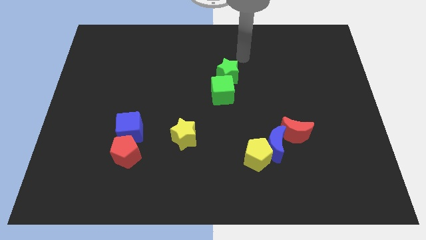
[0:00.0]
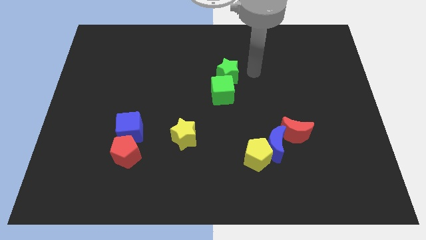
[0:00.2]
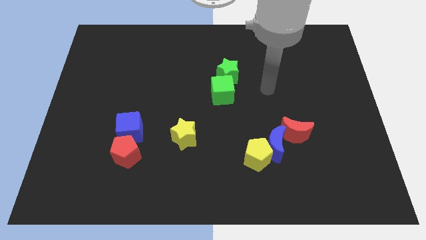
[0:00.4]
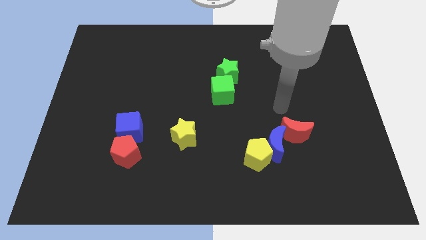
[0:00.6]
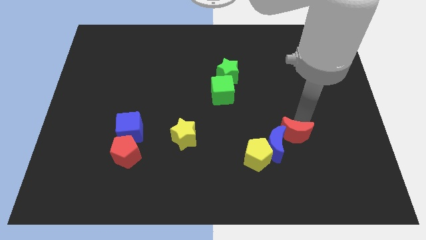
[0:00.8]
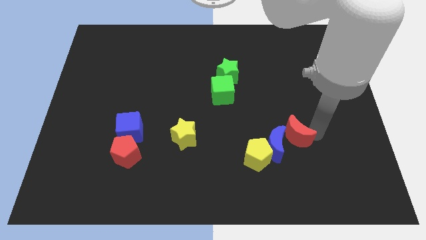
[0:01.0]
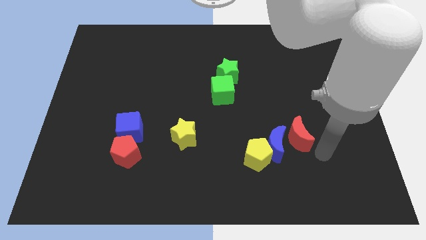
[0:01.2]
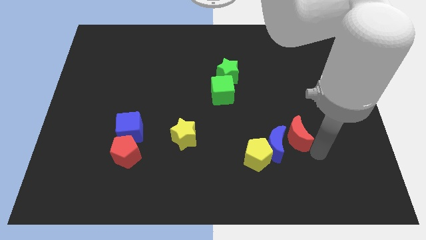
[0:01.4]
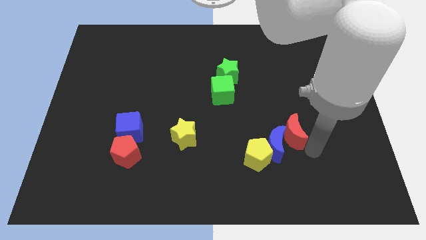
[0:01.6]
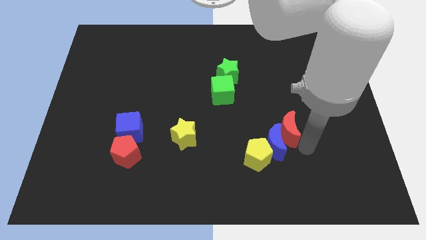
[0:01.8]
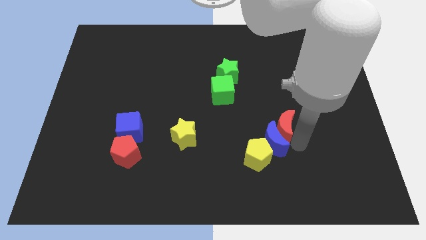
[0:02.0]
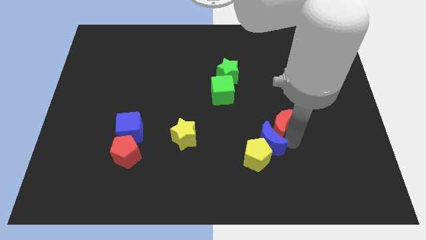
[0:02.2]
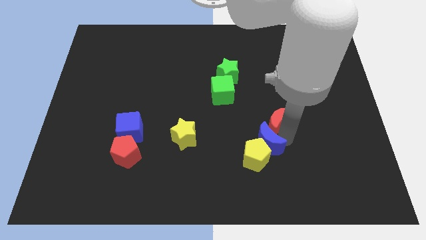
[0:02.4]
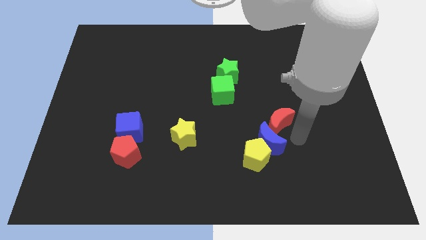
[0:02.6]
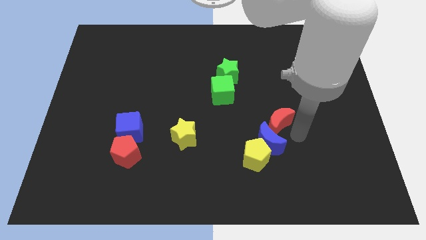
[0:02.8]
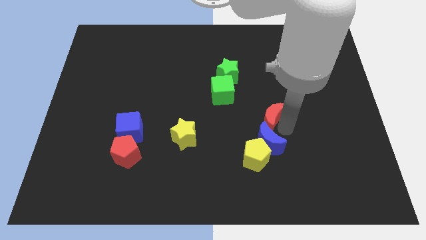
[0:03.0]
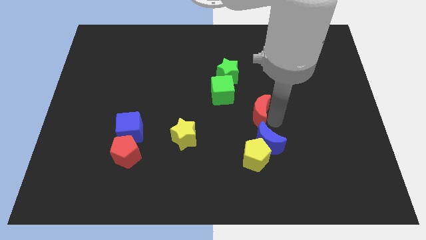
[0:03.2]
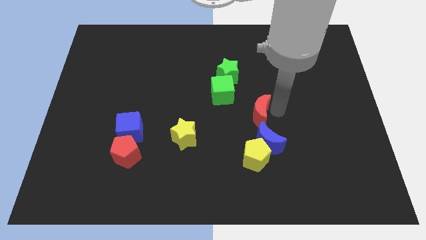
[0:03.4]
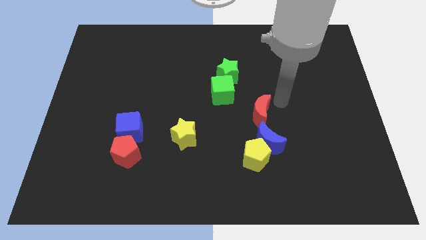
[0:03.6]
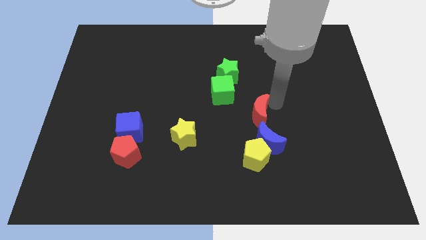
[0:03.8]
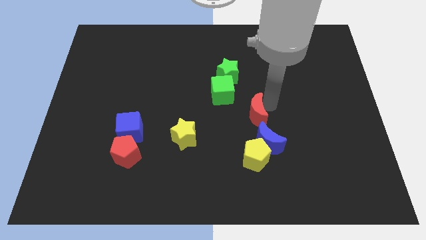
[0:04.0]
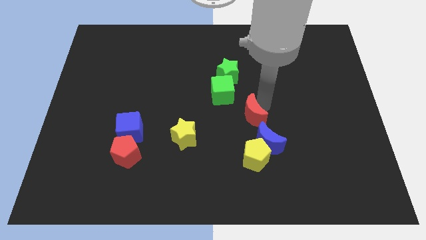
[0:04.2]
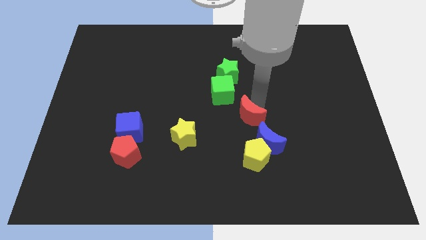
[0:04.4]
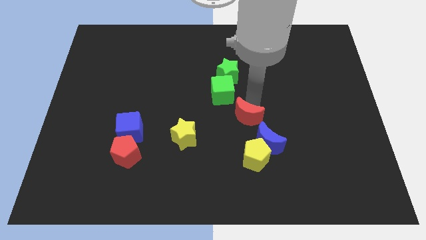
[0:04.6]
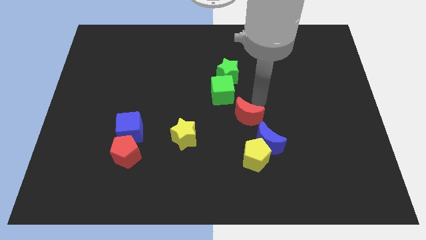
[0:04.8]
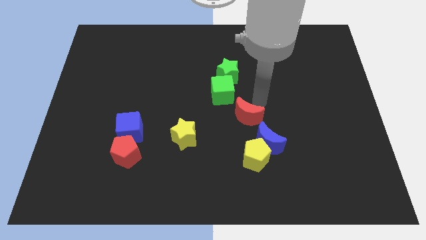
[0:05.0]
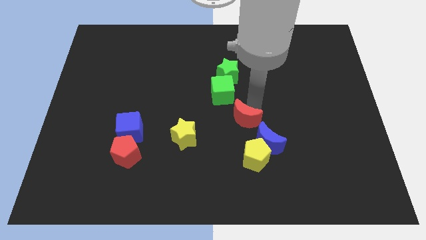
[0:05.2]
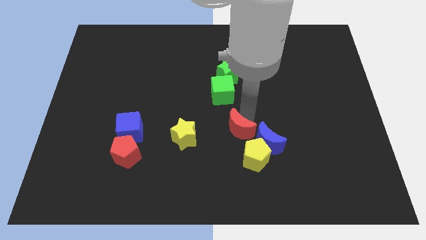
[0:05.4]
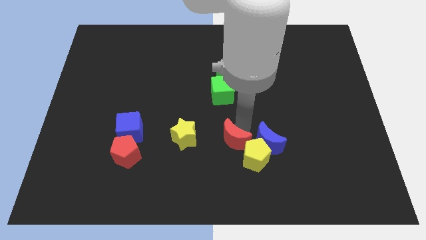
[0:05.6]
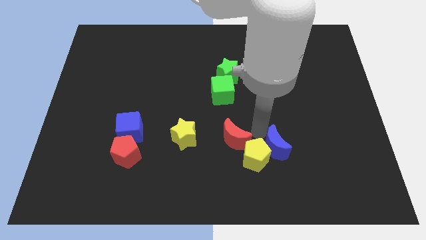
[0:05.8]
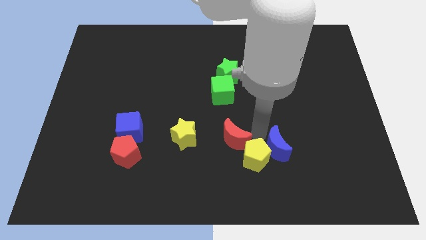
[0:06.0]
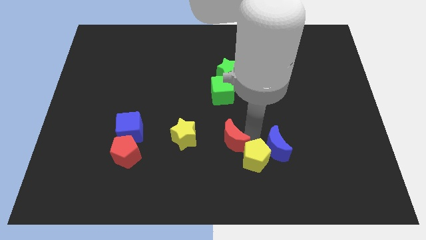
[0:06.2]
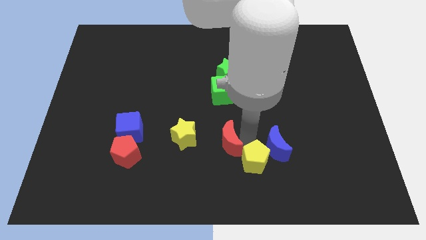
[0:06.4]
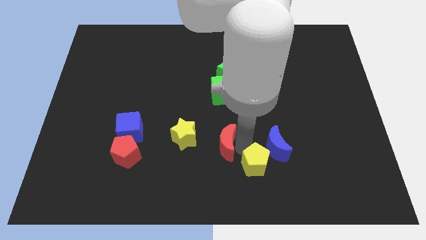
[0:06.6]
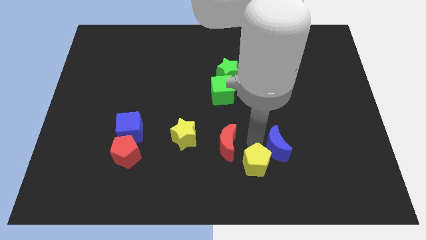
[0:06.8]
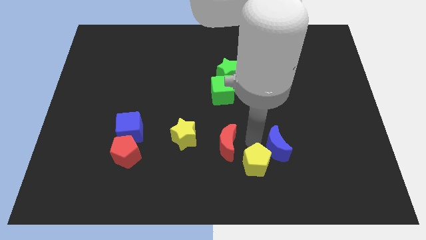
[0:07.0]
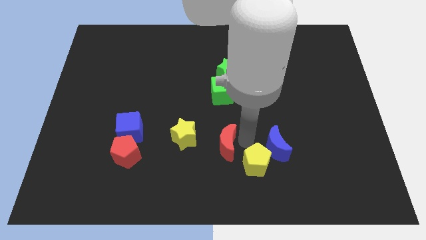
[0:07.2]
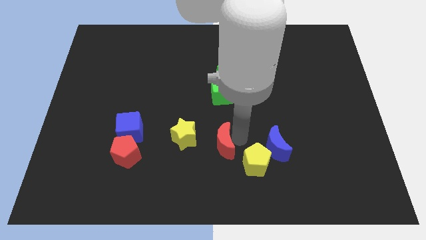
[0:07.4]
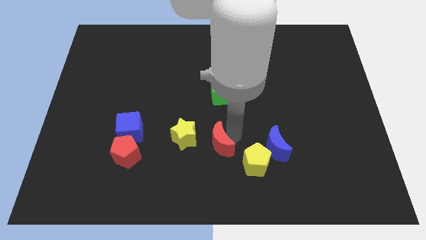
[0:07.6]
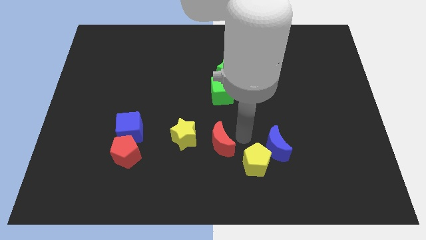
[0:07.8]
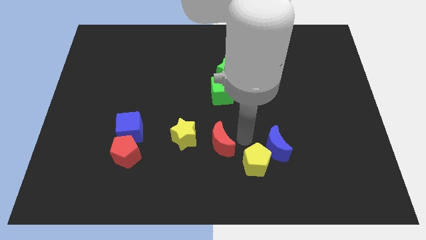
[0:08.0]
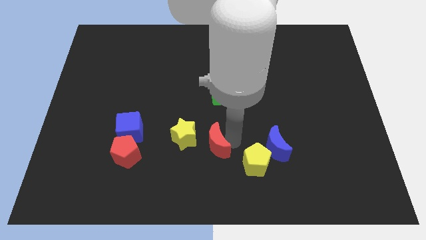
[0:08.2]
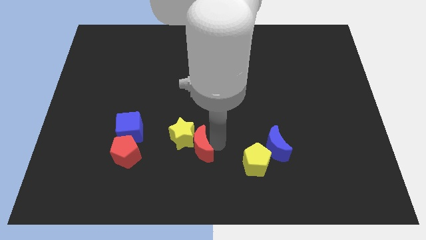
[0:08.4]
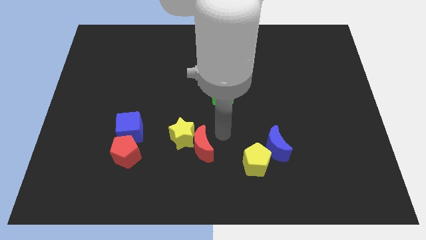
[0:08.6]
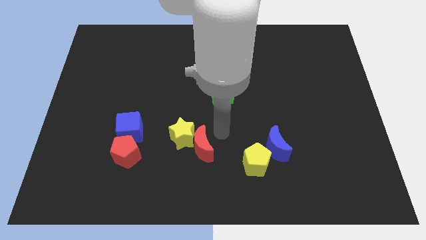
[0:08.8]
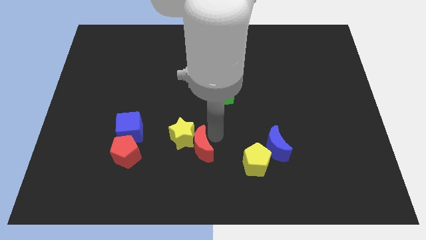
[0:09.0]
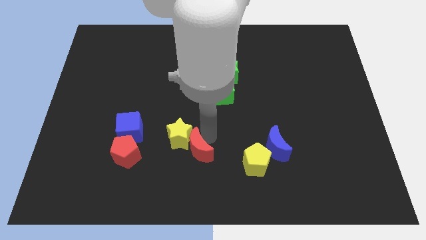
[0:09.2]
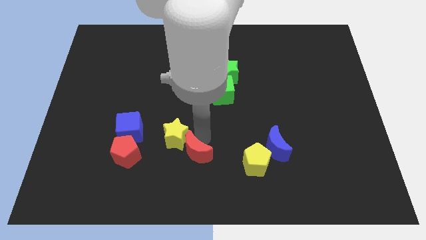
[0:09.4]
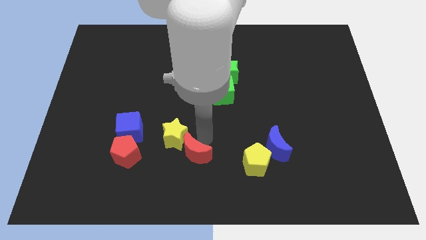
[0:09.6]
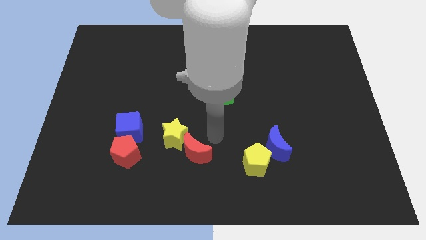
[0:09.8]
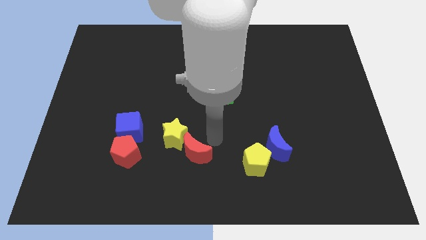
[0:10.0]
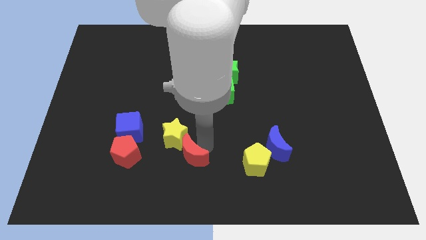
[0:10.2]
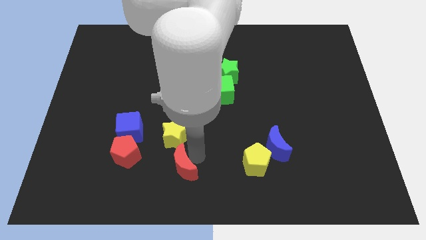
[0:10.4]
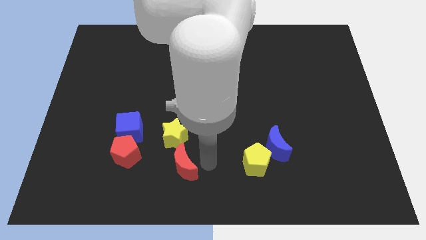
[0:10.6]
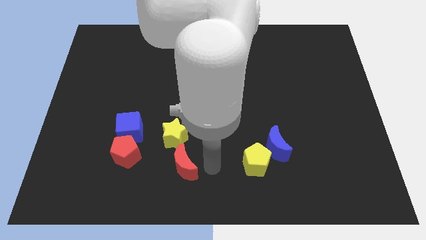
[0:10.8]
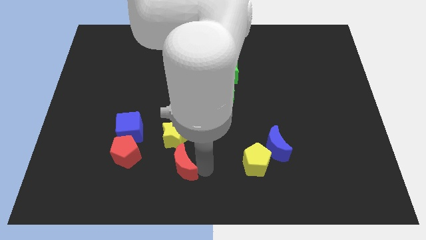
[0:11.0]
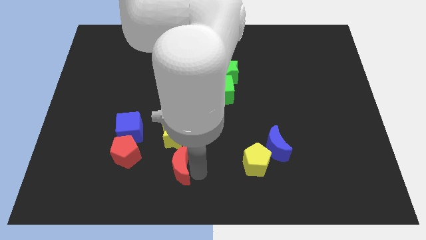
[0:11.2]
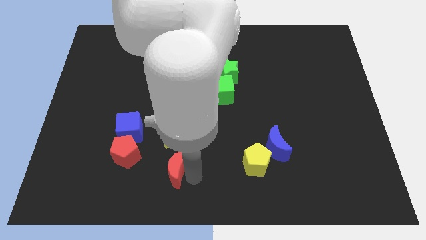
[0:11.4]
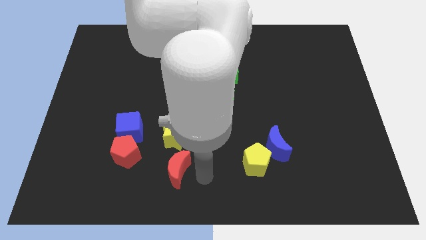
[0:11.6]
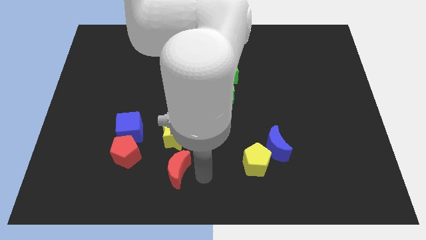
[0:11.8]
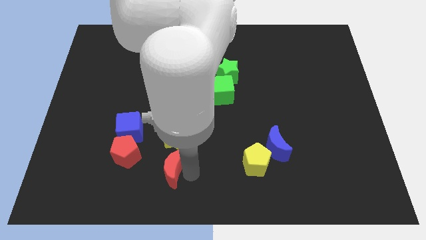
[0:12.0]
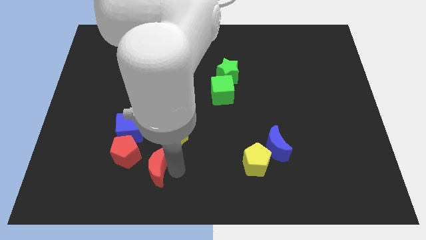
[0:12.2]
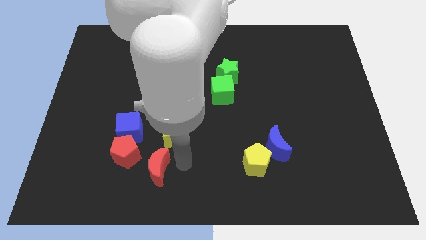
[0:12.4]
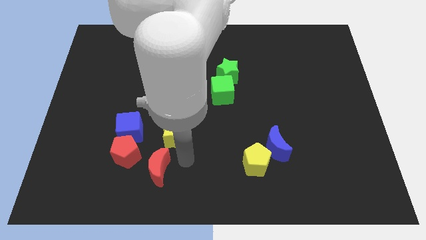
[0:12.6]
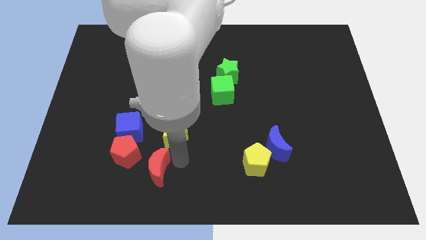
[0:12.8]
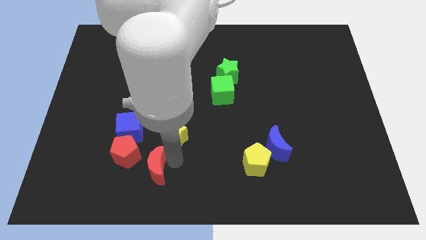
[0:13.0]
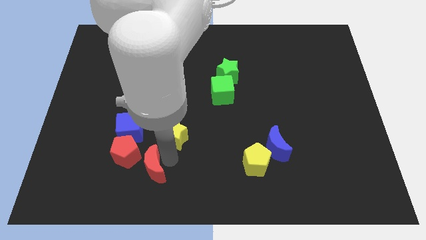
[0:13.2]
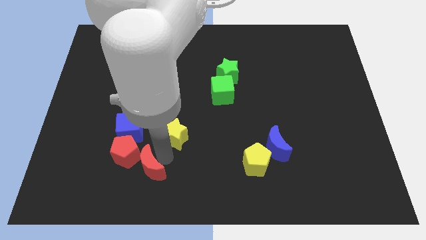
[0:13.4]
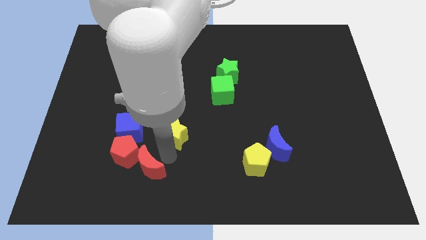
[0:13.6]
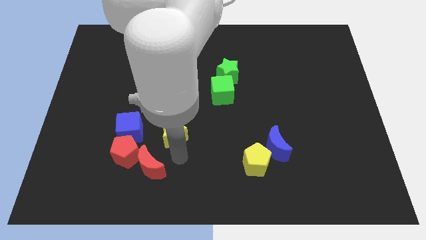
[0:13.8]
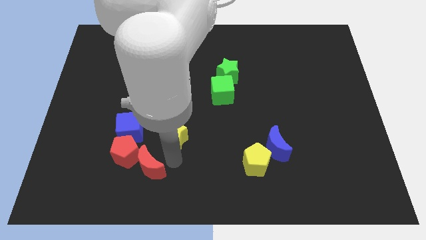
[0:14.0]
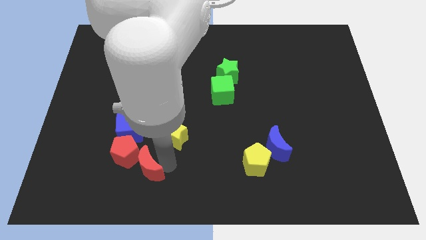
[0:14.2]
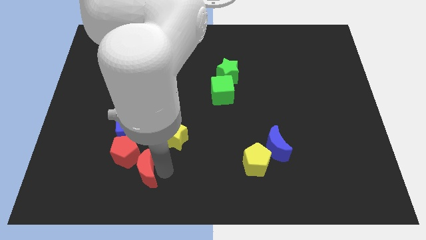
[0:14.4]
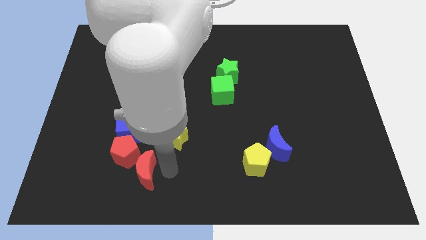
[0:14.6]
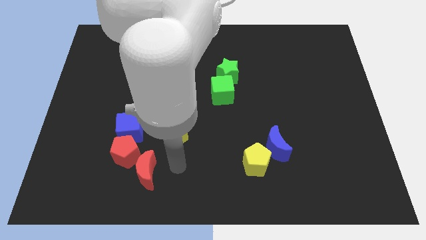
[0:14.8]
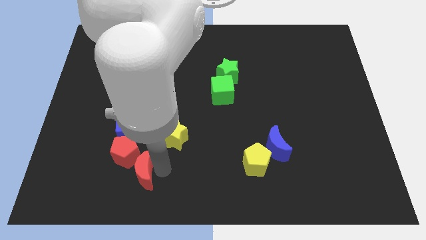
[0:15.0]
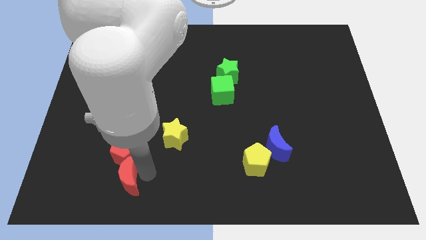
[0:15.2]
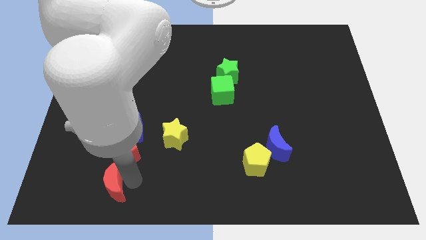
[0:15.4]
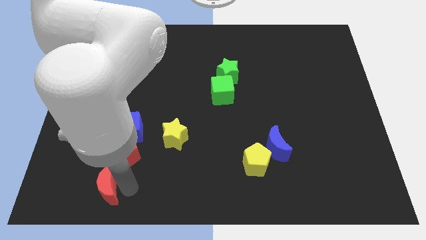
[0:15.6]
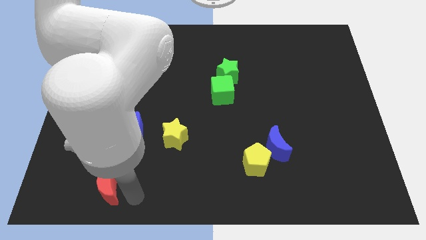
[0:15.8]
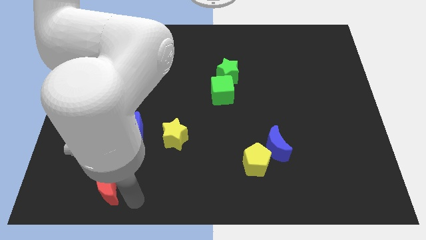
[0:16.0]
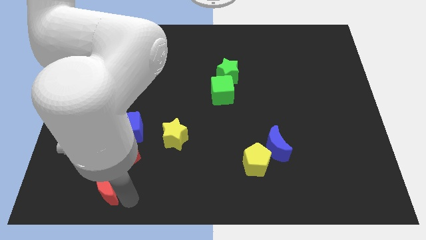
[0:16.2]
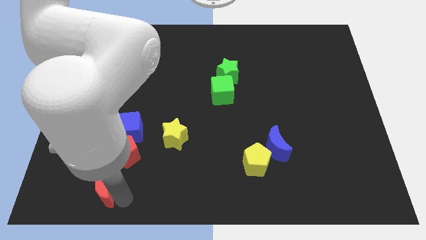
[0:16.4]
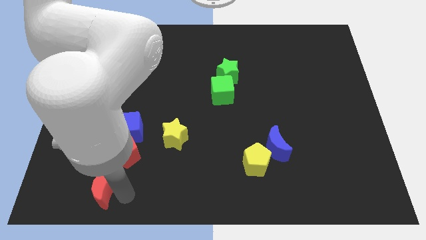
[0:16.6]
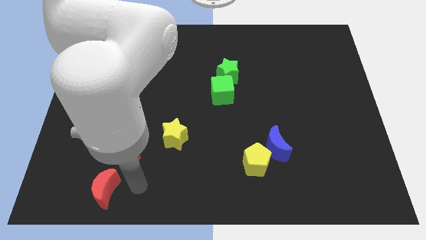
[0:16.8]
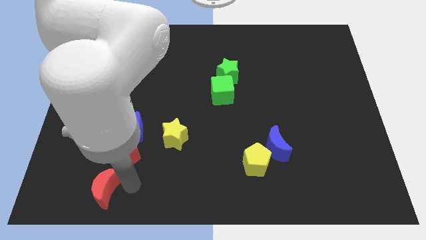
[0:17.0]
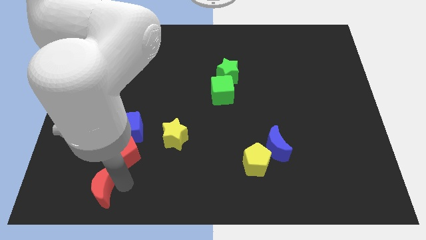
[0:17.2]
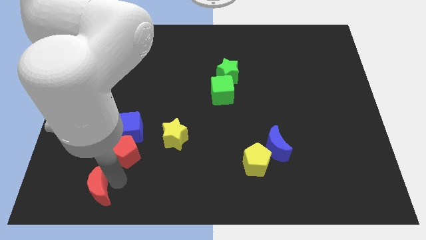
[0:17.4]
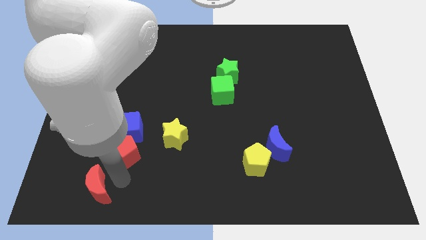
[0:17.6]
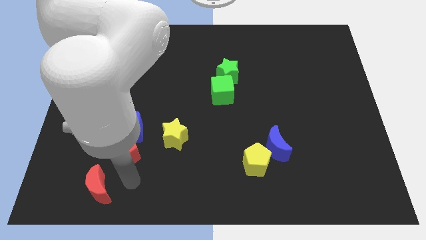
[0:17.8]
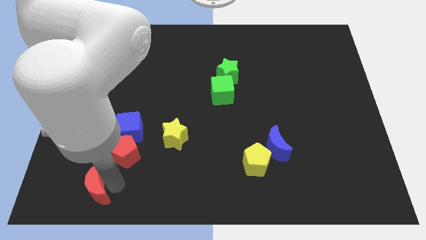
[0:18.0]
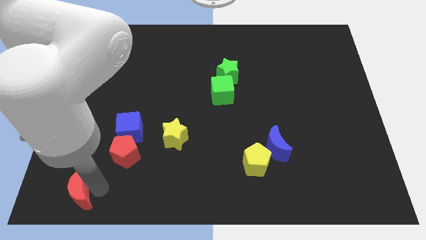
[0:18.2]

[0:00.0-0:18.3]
move the red moon to the bottom left
